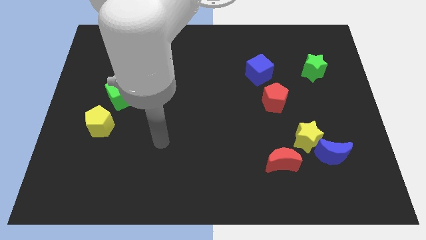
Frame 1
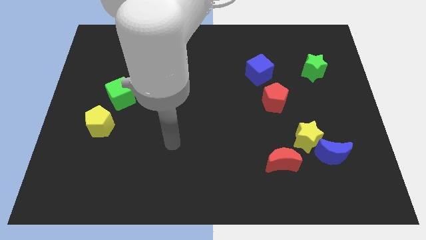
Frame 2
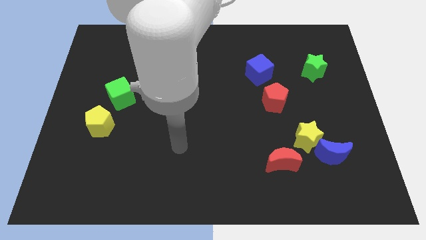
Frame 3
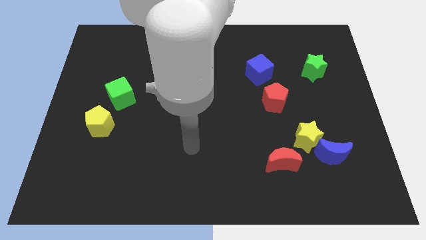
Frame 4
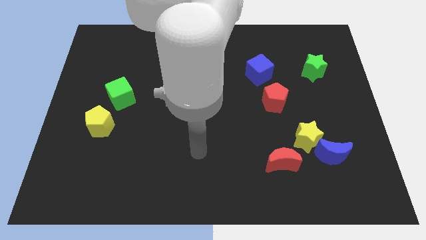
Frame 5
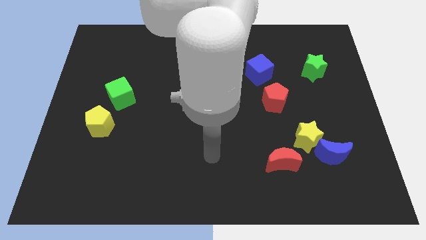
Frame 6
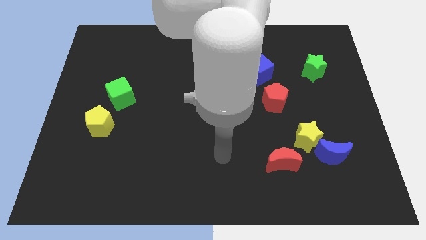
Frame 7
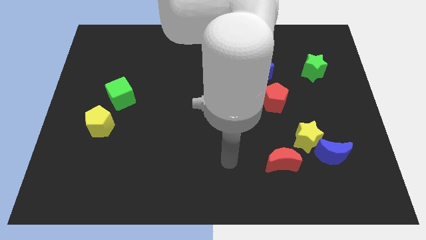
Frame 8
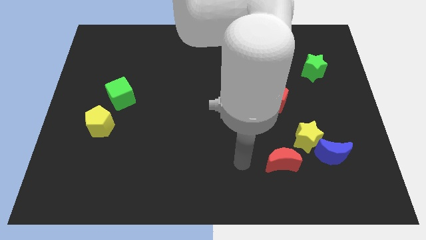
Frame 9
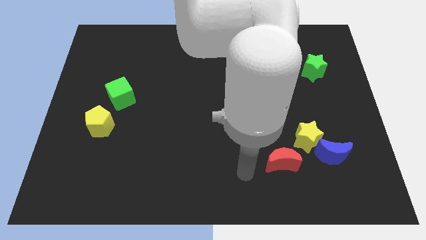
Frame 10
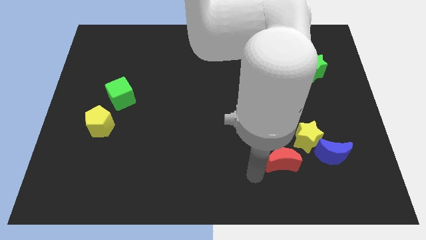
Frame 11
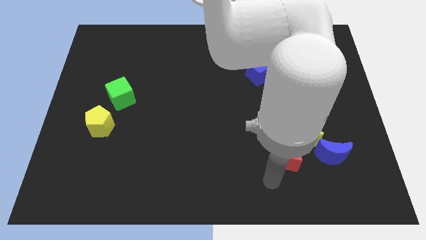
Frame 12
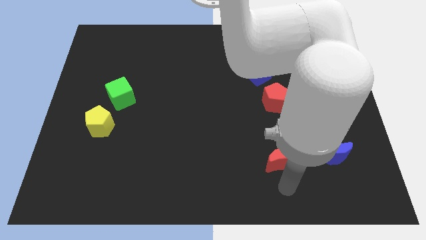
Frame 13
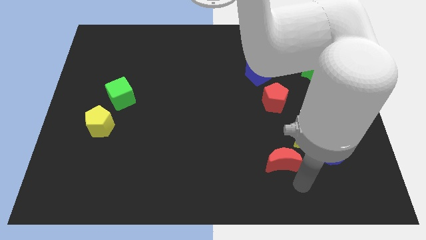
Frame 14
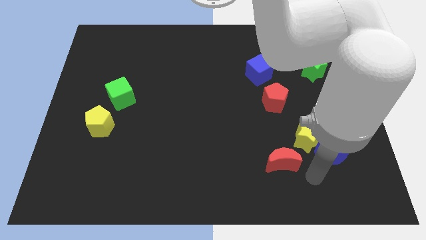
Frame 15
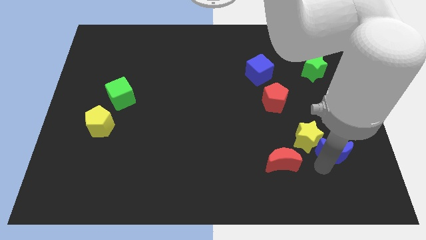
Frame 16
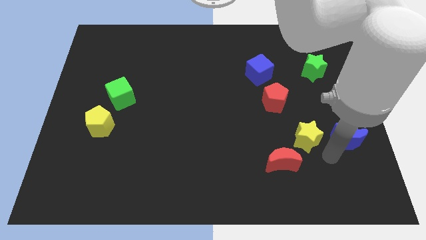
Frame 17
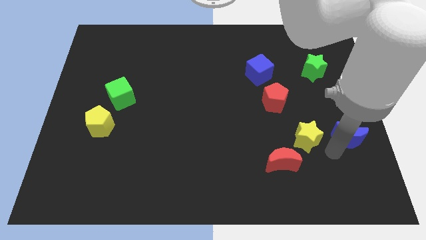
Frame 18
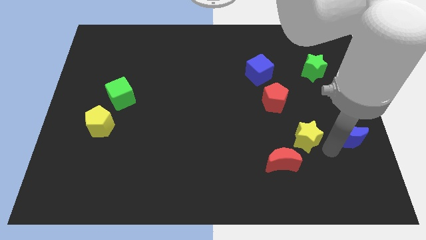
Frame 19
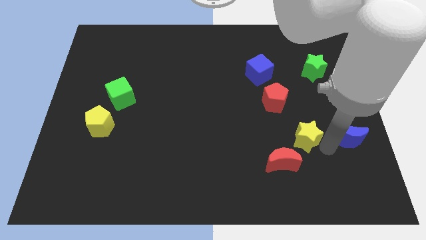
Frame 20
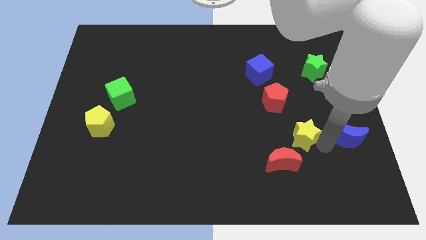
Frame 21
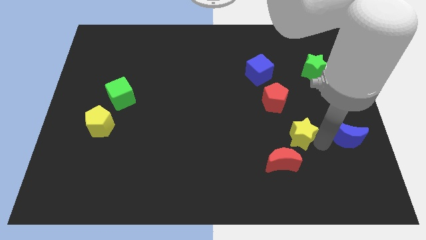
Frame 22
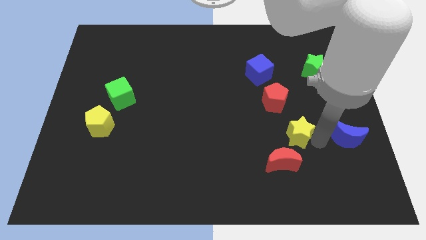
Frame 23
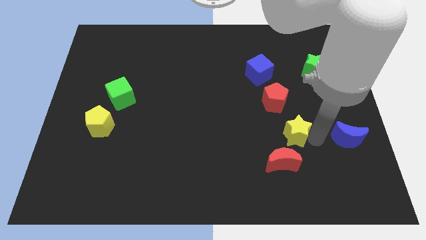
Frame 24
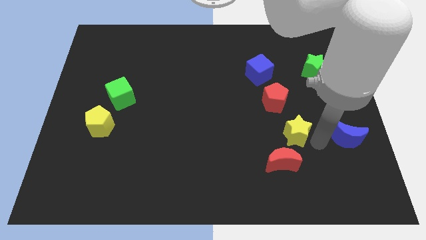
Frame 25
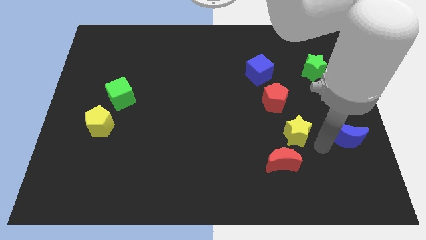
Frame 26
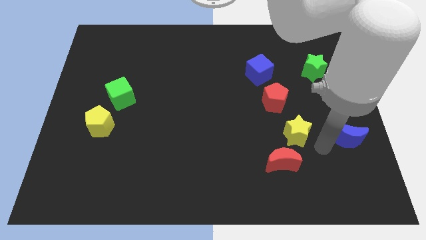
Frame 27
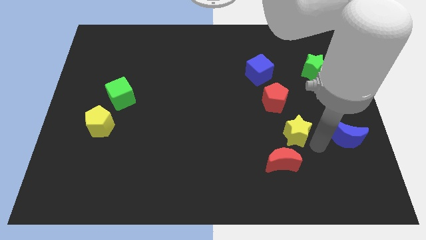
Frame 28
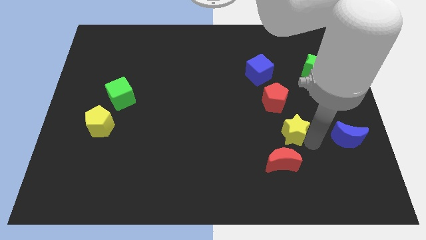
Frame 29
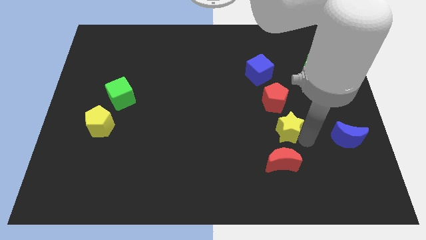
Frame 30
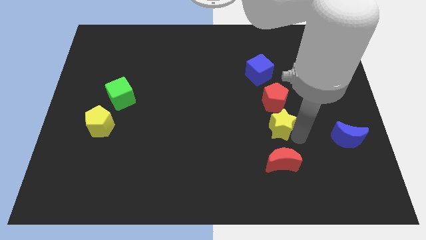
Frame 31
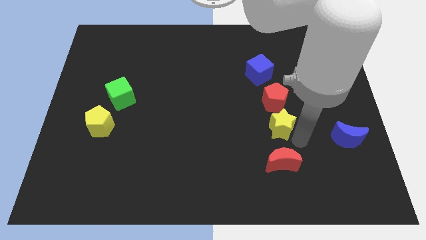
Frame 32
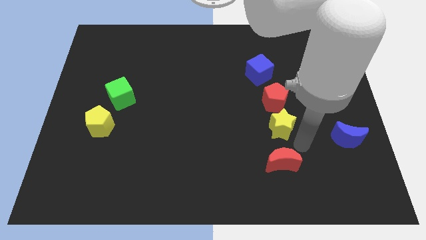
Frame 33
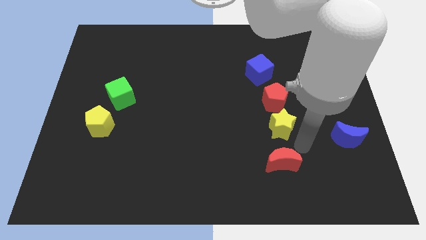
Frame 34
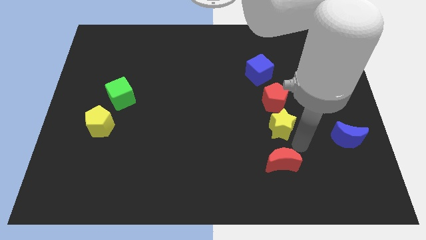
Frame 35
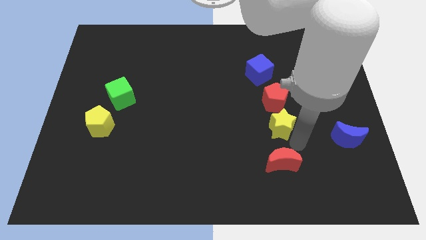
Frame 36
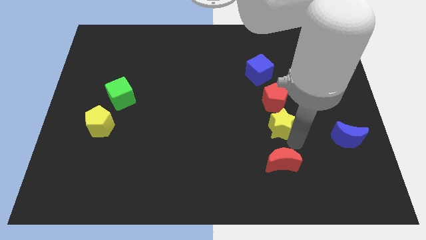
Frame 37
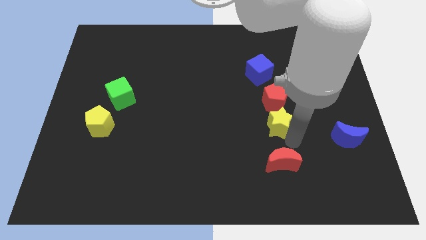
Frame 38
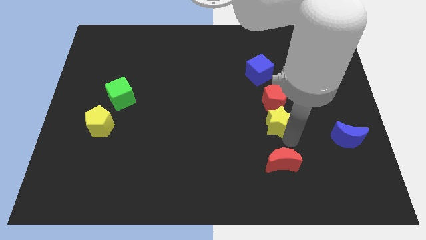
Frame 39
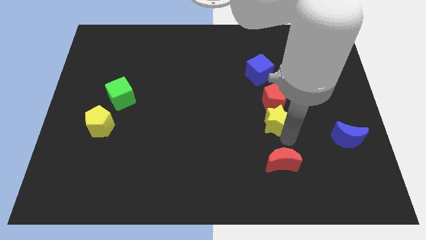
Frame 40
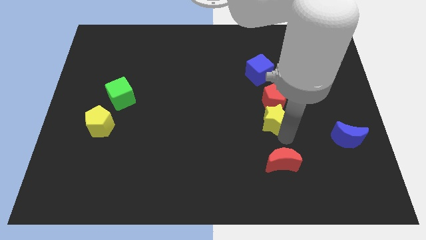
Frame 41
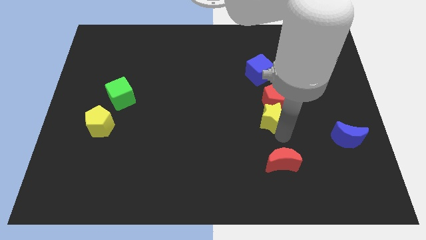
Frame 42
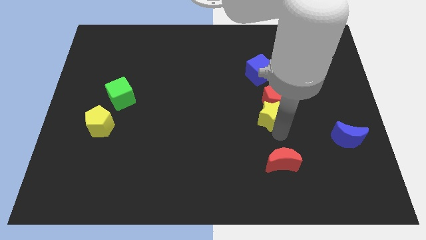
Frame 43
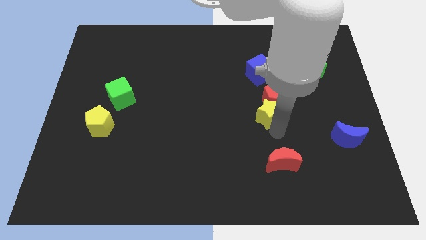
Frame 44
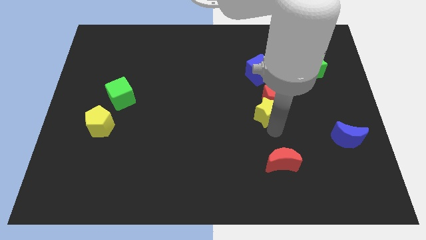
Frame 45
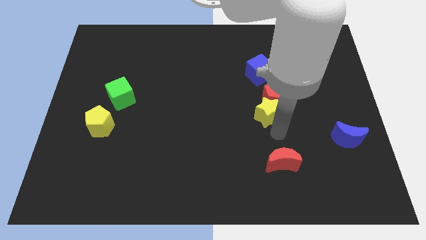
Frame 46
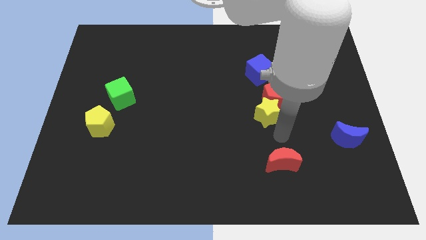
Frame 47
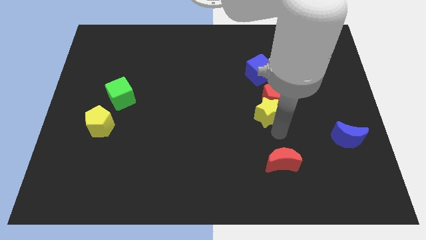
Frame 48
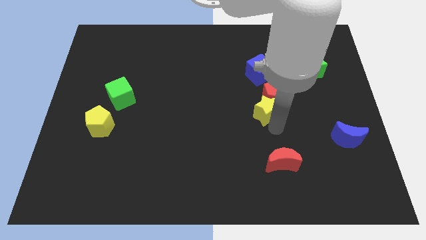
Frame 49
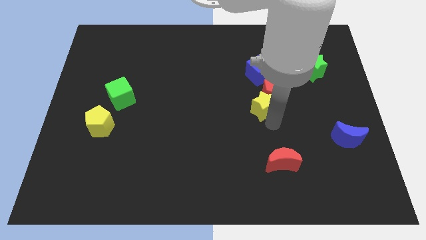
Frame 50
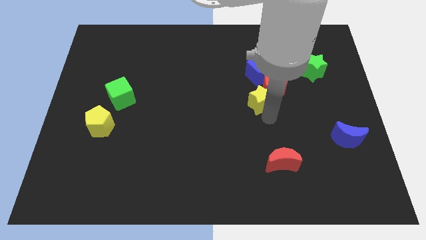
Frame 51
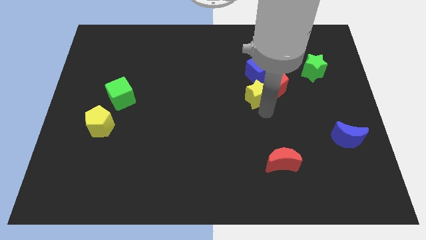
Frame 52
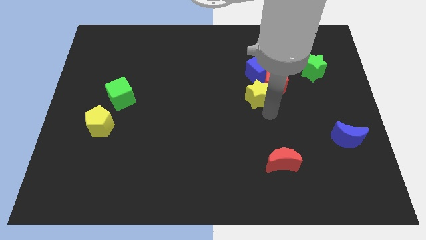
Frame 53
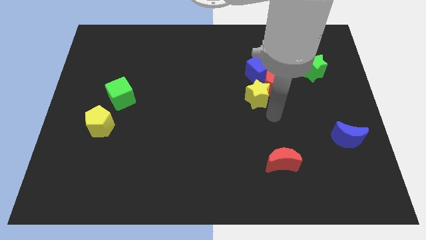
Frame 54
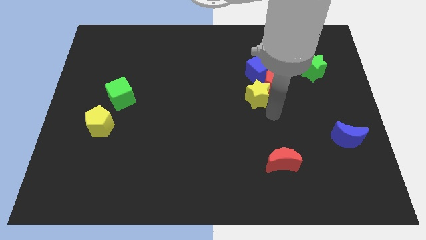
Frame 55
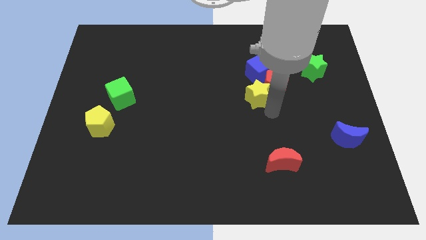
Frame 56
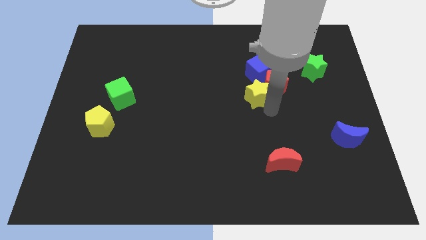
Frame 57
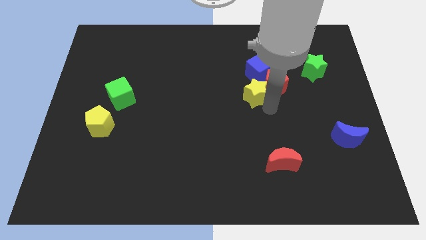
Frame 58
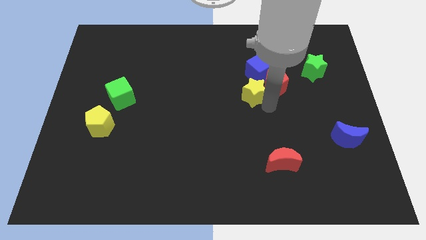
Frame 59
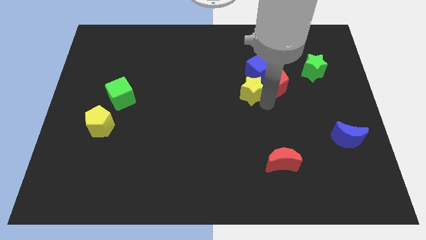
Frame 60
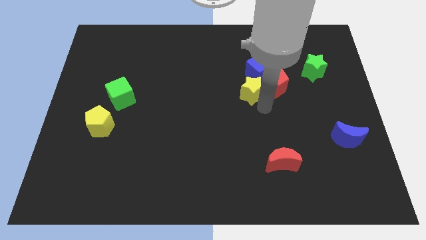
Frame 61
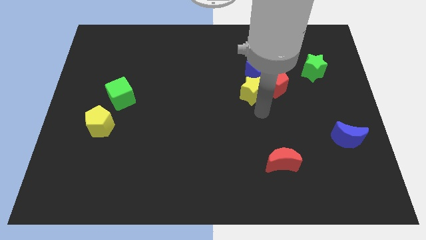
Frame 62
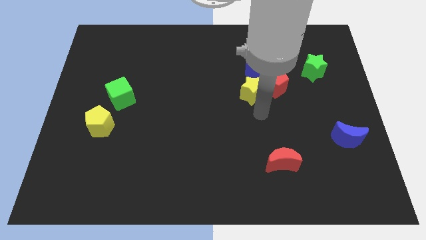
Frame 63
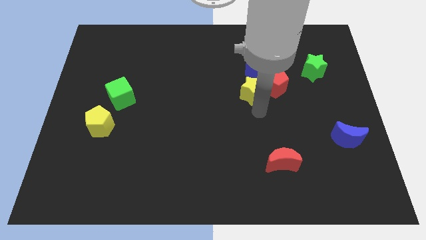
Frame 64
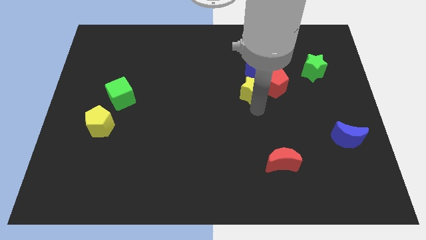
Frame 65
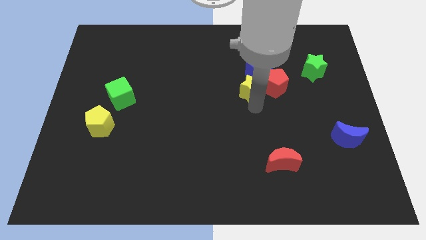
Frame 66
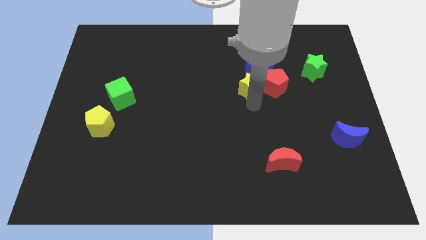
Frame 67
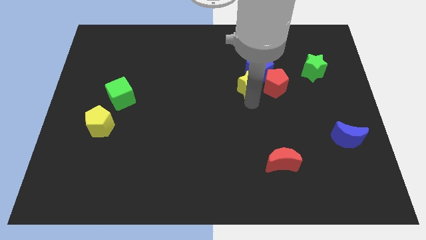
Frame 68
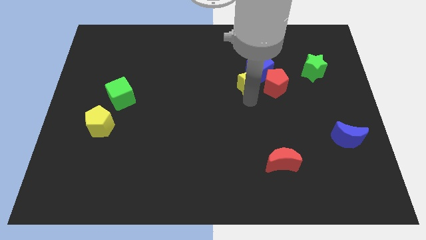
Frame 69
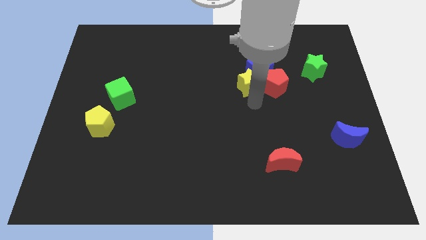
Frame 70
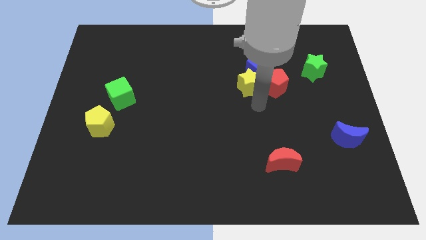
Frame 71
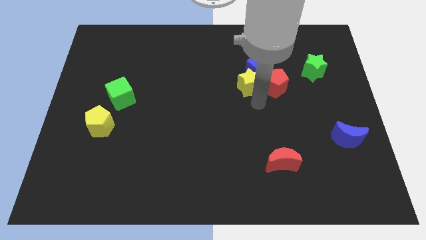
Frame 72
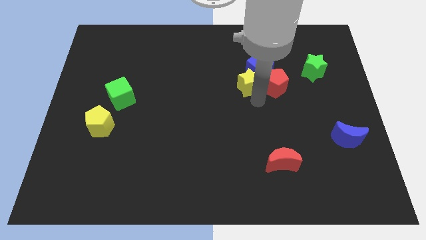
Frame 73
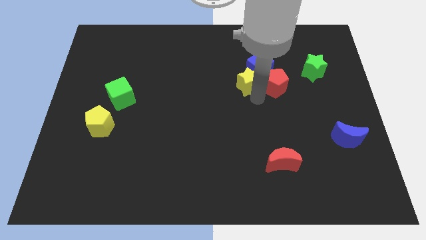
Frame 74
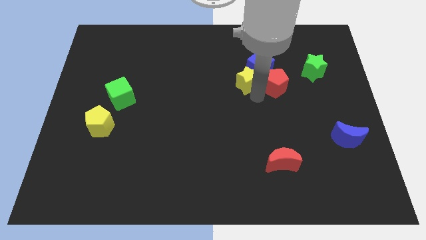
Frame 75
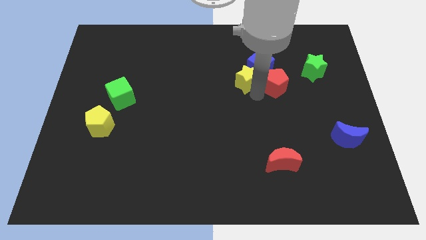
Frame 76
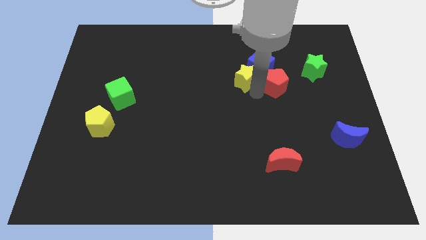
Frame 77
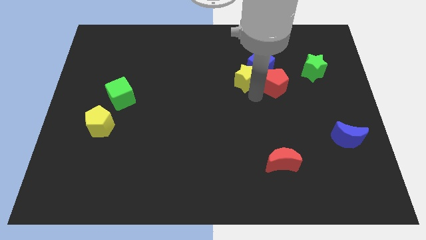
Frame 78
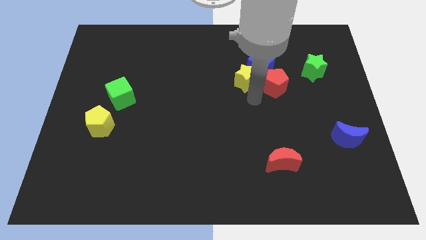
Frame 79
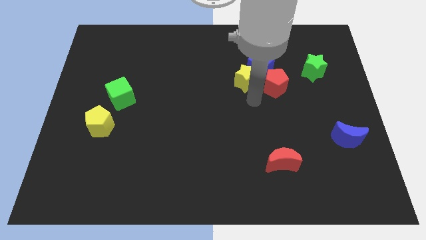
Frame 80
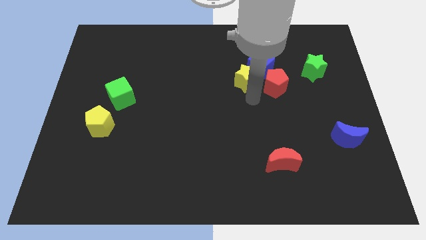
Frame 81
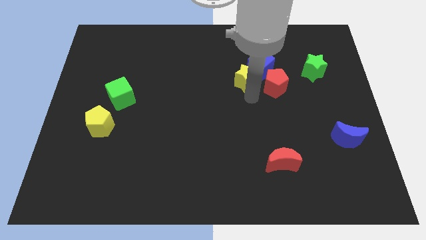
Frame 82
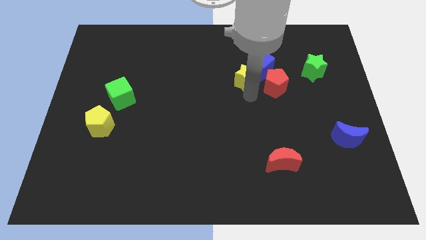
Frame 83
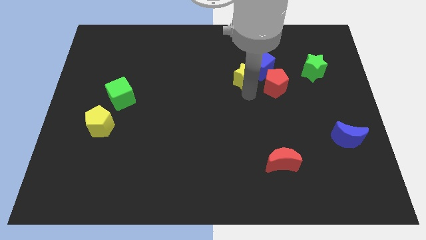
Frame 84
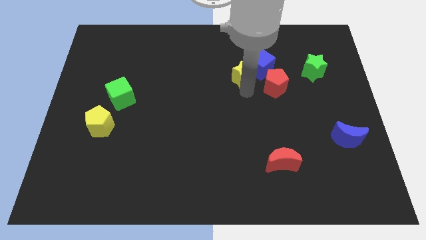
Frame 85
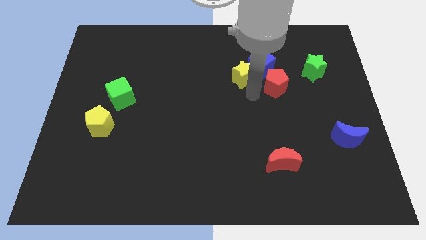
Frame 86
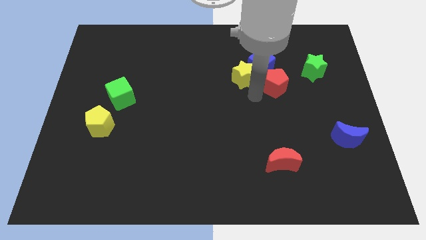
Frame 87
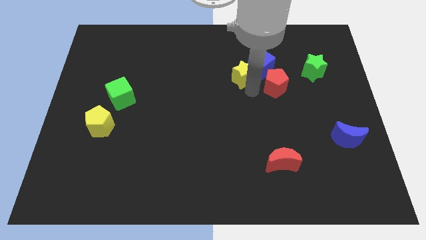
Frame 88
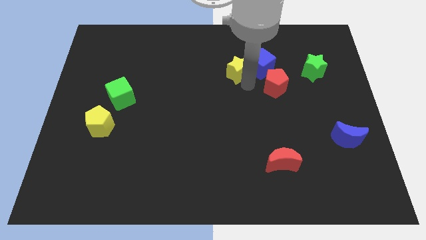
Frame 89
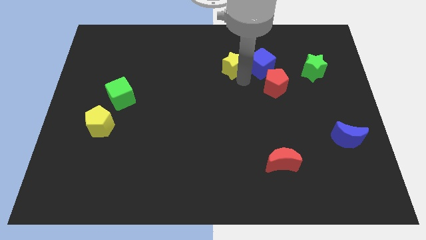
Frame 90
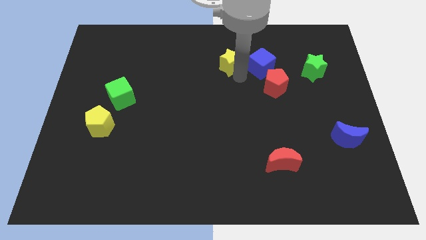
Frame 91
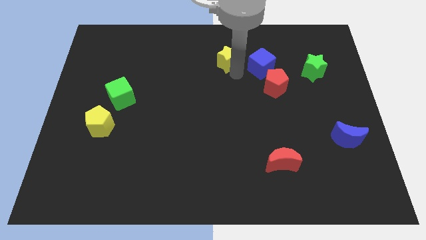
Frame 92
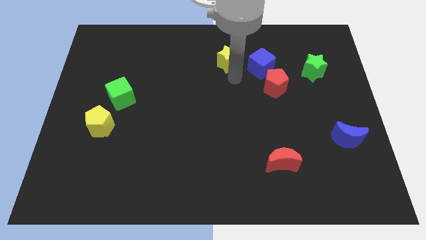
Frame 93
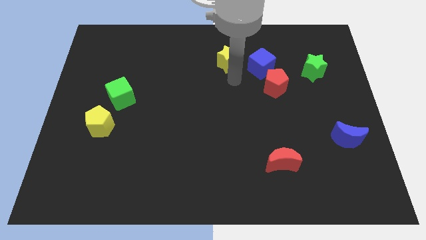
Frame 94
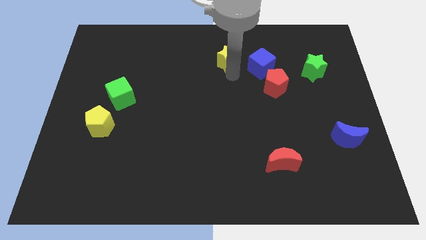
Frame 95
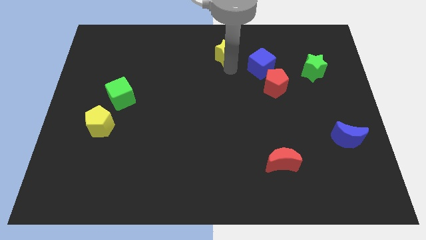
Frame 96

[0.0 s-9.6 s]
move the yellow star to the towards your base
